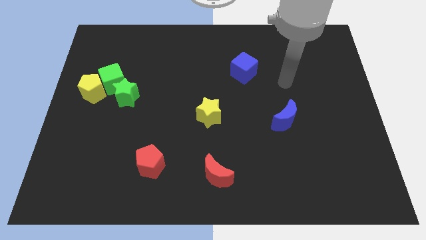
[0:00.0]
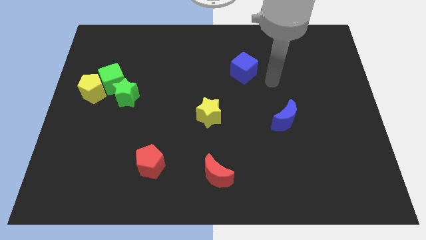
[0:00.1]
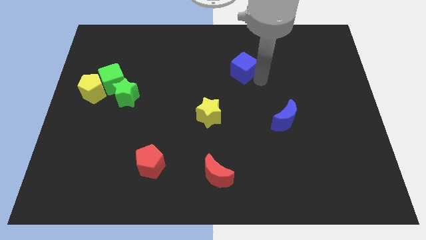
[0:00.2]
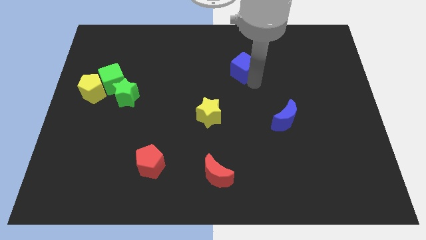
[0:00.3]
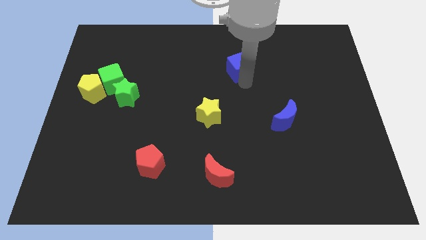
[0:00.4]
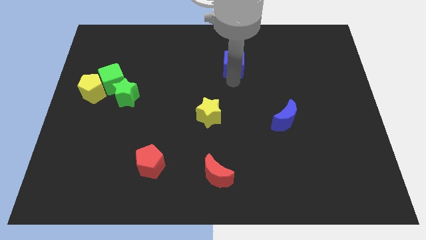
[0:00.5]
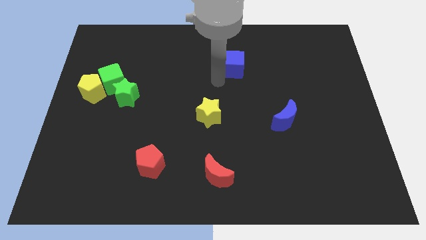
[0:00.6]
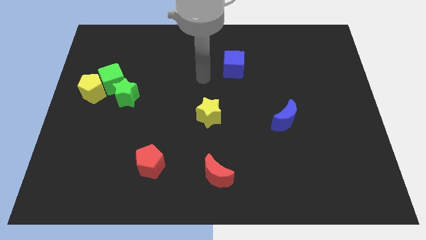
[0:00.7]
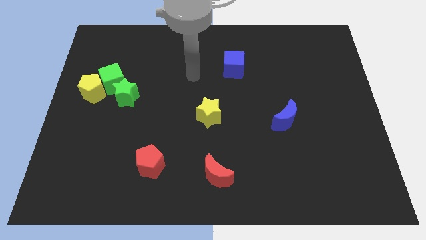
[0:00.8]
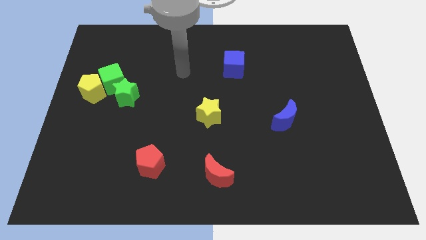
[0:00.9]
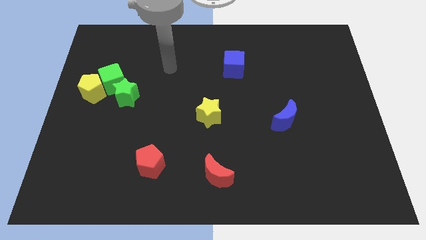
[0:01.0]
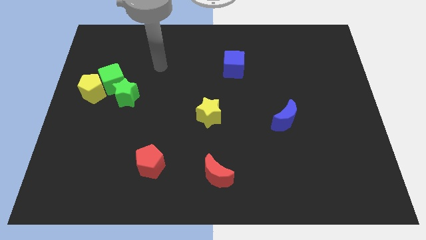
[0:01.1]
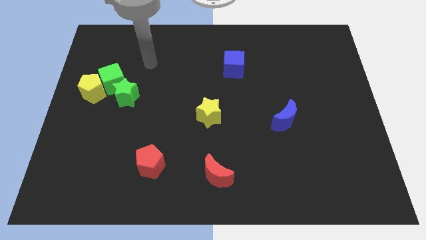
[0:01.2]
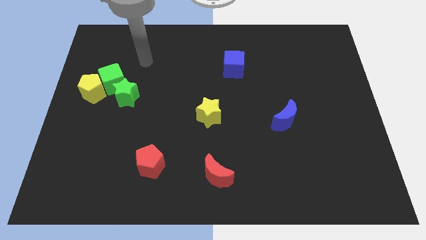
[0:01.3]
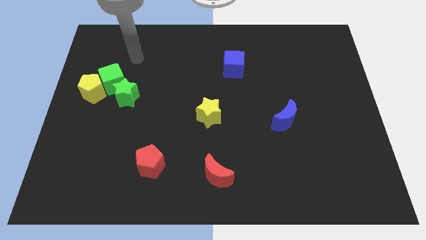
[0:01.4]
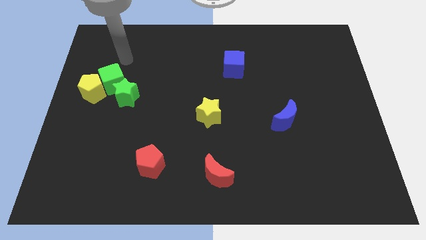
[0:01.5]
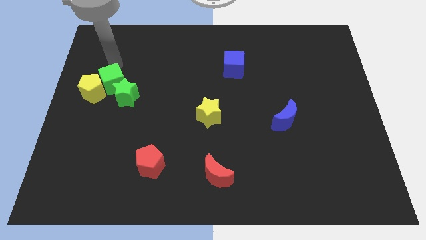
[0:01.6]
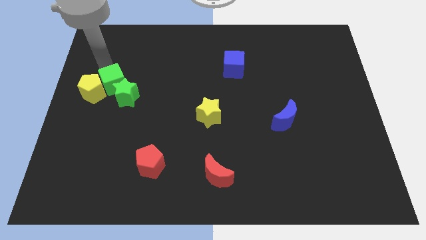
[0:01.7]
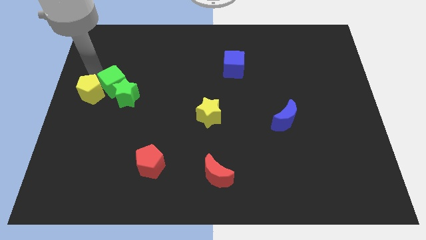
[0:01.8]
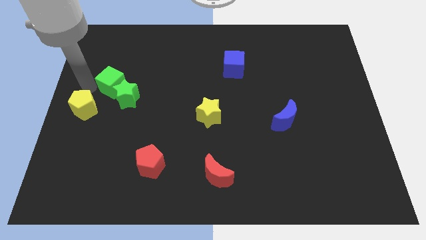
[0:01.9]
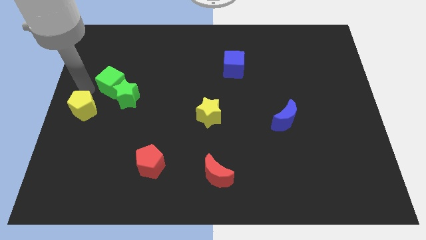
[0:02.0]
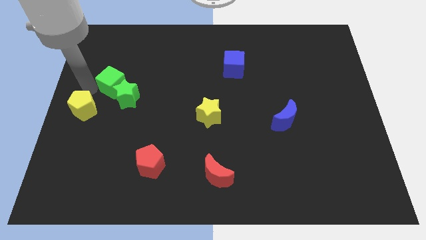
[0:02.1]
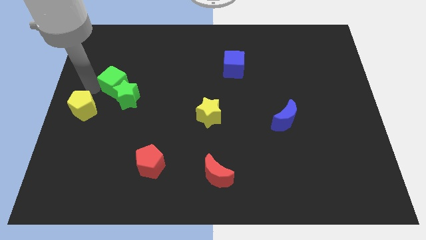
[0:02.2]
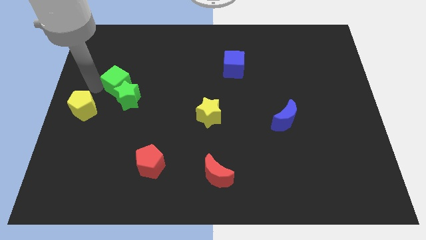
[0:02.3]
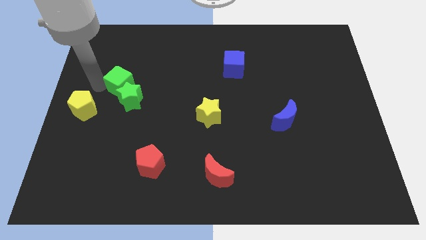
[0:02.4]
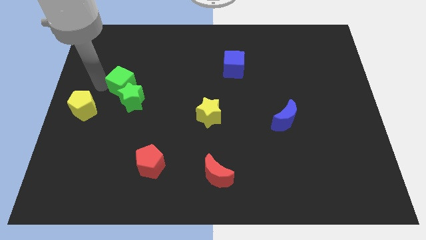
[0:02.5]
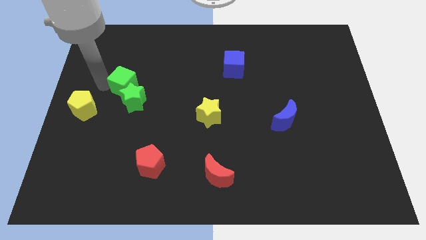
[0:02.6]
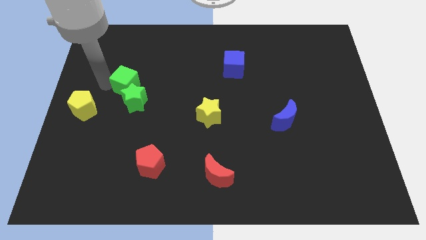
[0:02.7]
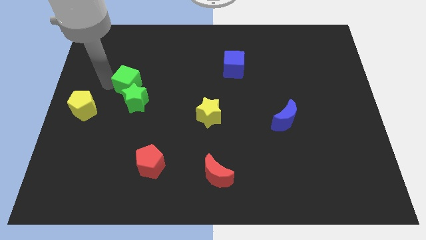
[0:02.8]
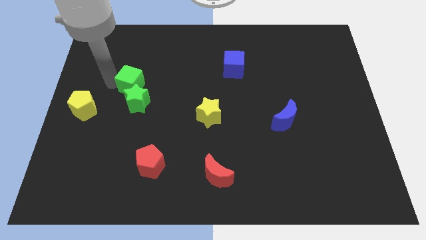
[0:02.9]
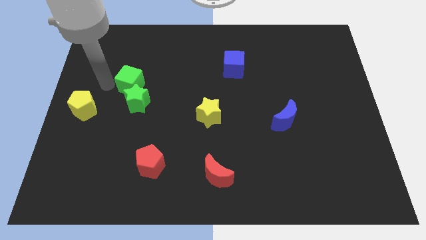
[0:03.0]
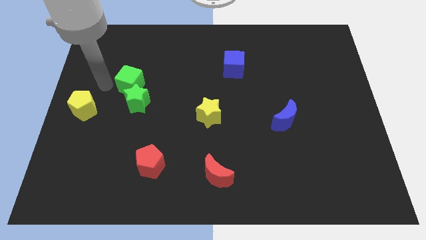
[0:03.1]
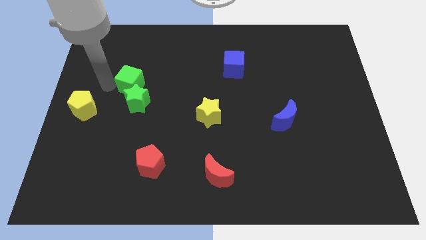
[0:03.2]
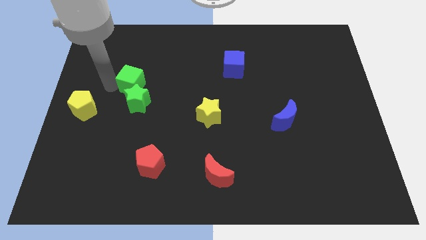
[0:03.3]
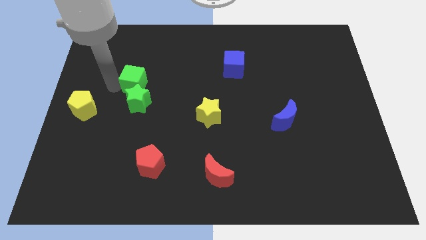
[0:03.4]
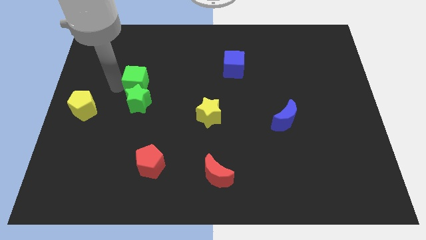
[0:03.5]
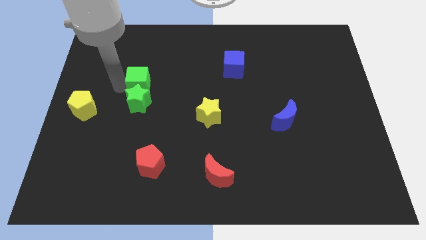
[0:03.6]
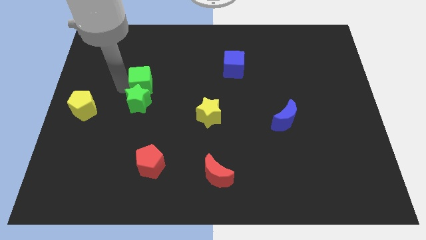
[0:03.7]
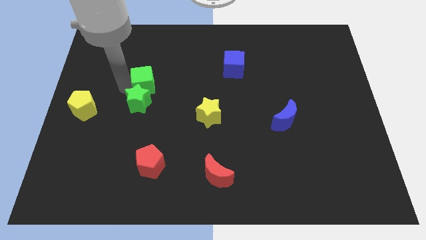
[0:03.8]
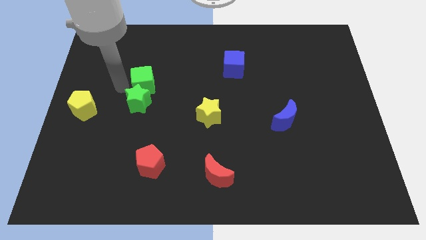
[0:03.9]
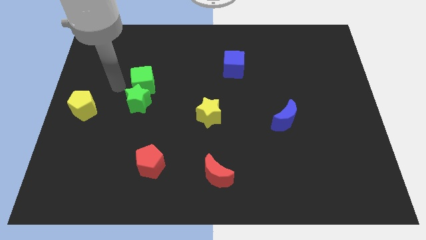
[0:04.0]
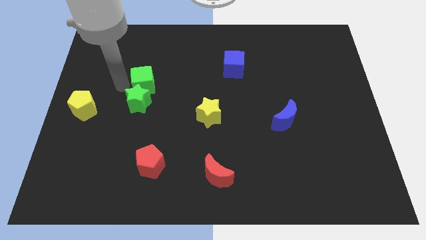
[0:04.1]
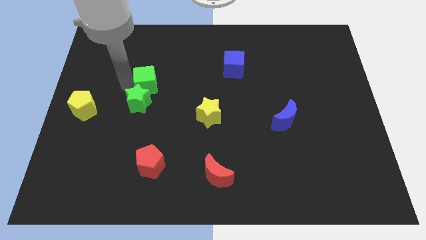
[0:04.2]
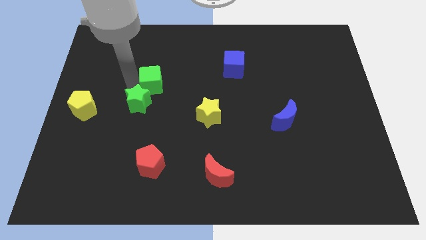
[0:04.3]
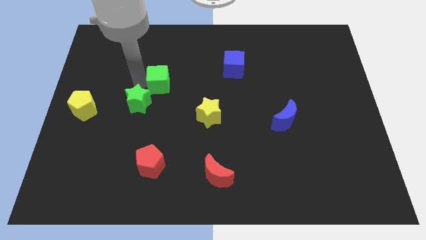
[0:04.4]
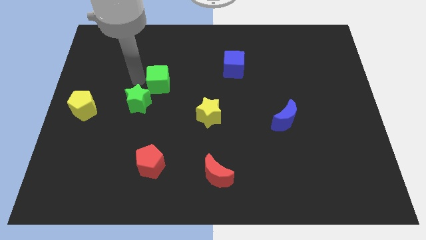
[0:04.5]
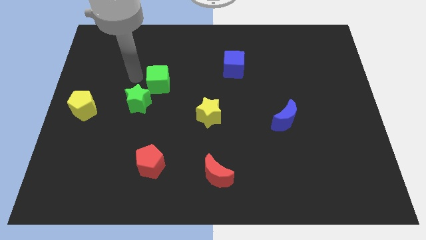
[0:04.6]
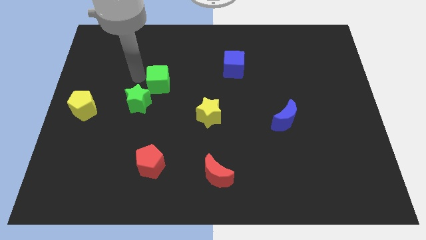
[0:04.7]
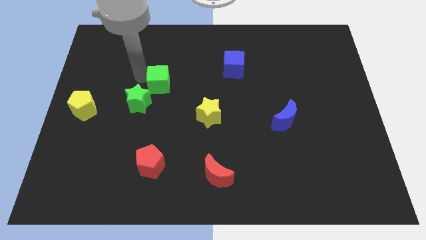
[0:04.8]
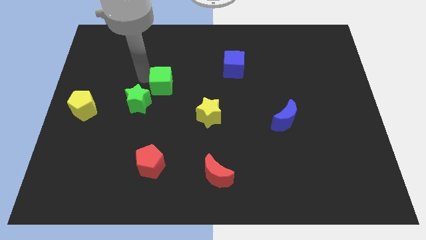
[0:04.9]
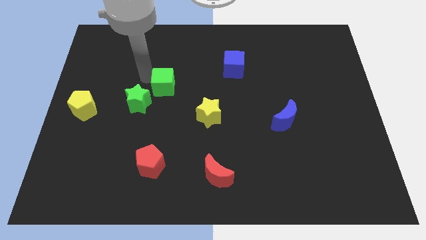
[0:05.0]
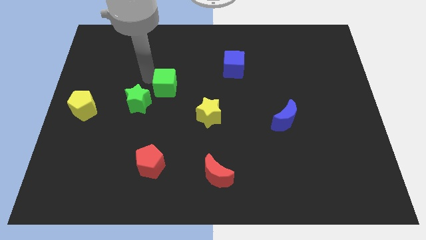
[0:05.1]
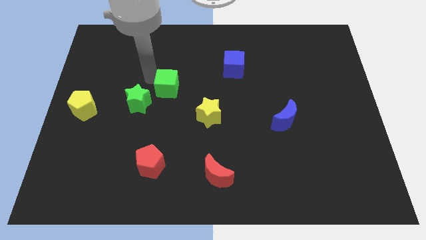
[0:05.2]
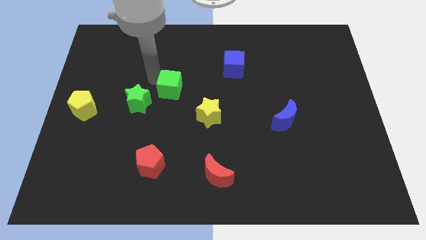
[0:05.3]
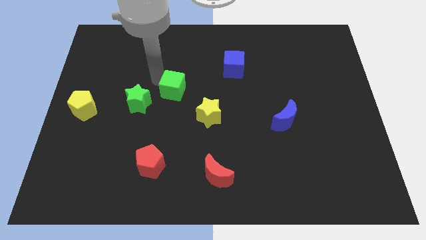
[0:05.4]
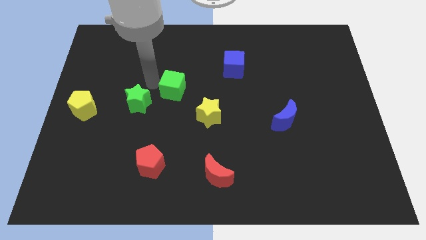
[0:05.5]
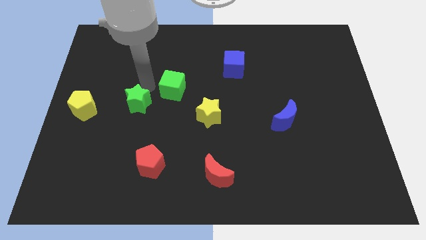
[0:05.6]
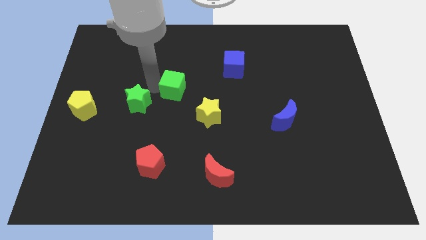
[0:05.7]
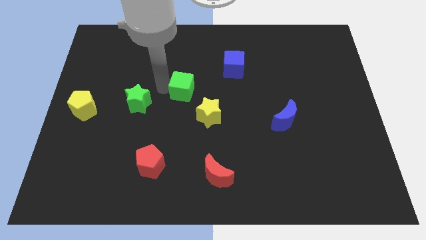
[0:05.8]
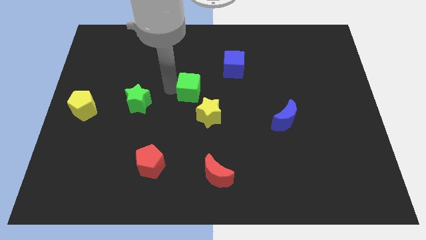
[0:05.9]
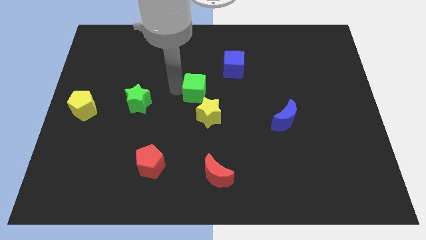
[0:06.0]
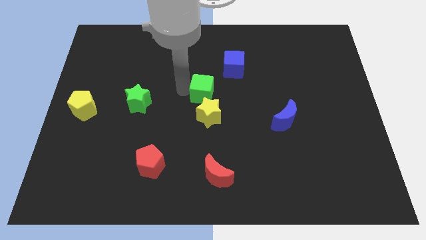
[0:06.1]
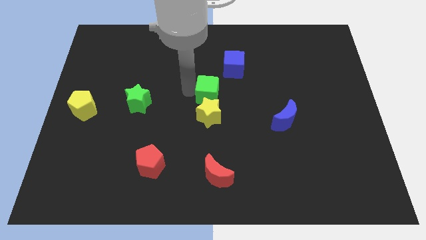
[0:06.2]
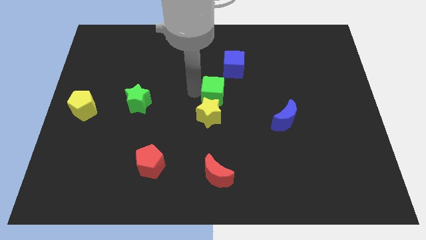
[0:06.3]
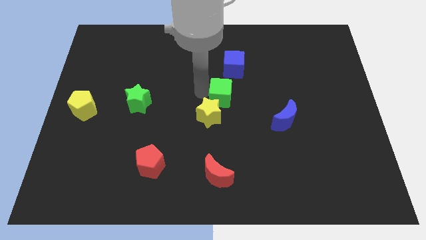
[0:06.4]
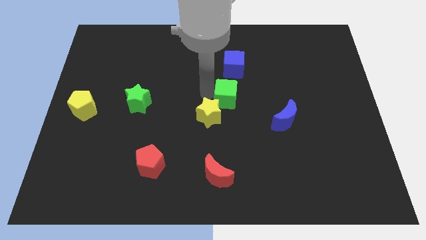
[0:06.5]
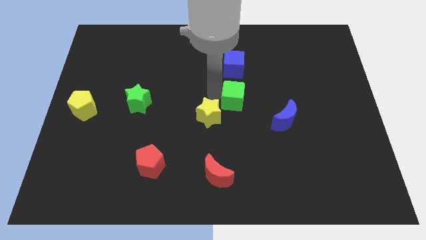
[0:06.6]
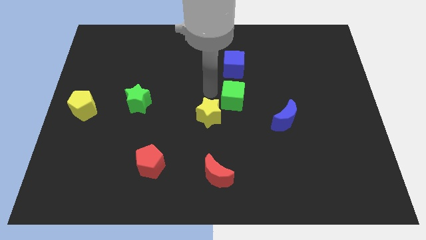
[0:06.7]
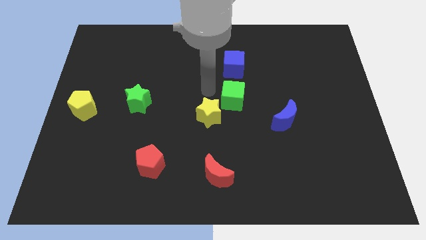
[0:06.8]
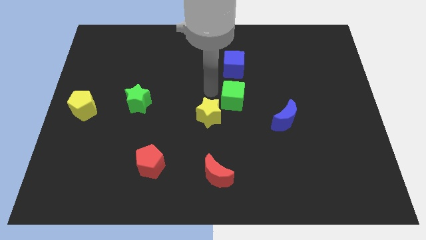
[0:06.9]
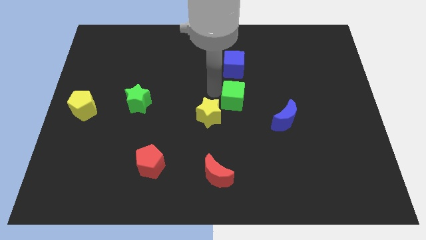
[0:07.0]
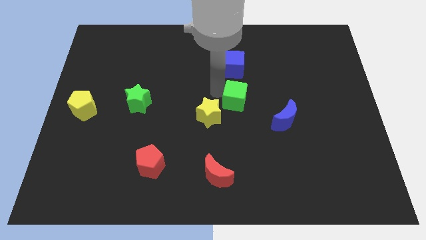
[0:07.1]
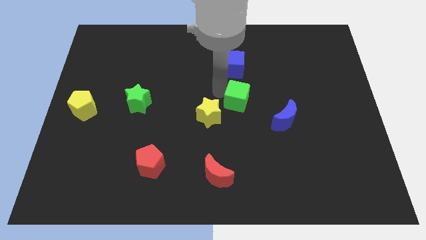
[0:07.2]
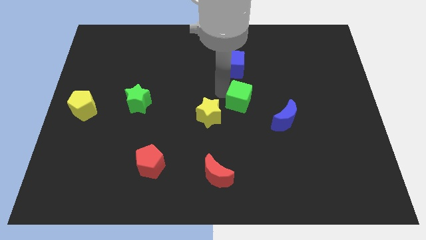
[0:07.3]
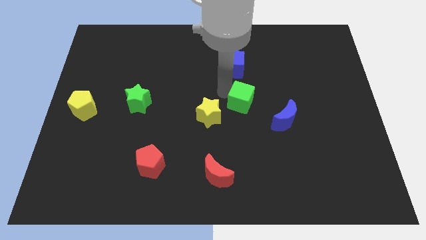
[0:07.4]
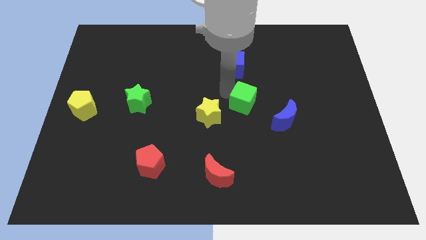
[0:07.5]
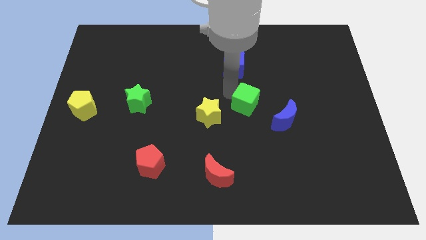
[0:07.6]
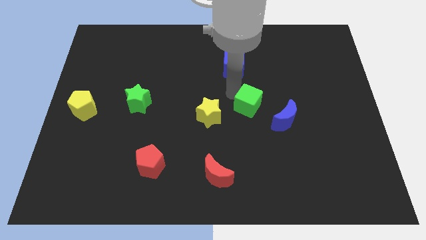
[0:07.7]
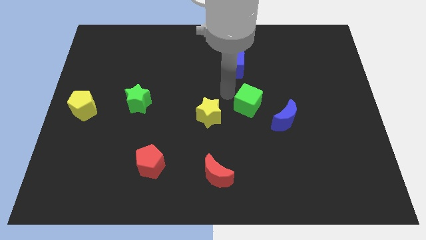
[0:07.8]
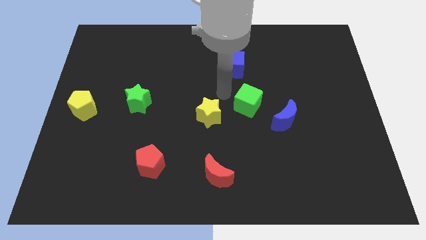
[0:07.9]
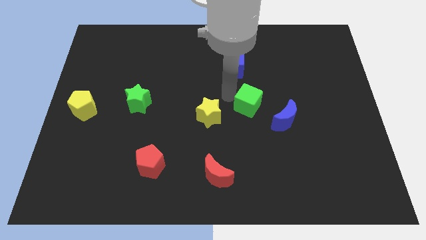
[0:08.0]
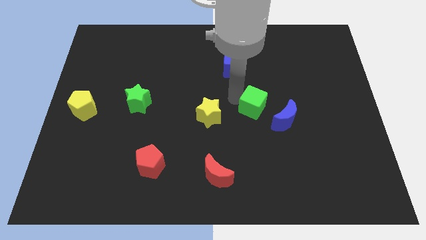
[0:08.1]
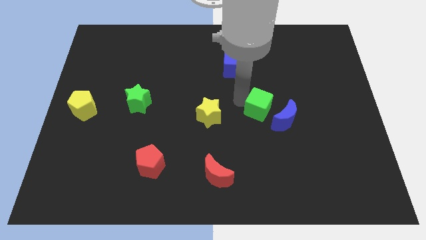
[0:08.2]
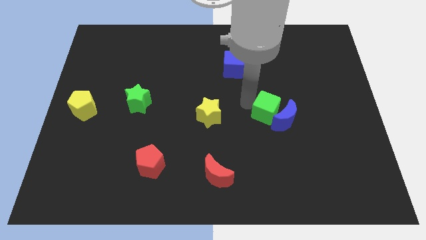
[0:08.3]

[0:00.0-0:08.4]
slide the green cube towards the blue moon
